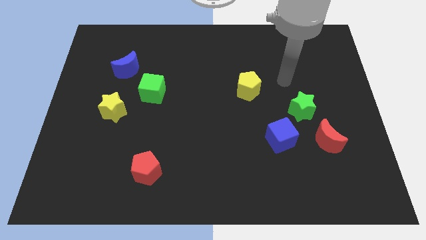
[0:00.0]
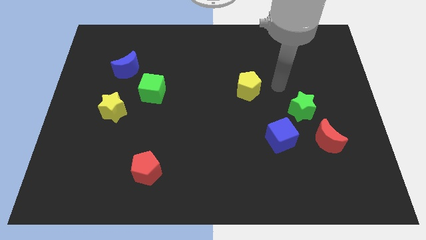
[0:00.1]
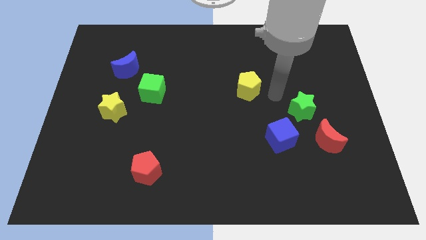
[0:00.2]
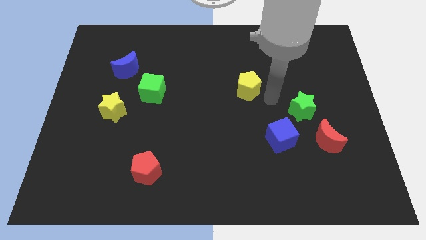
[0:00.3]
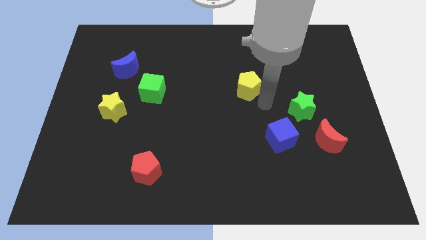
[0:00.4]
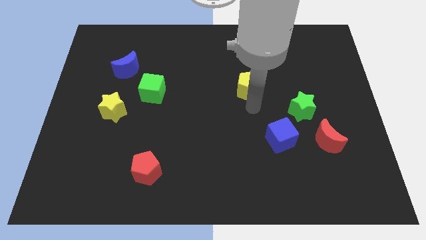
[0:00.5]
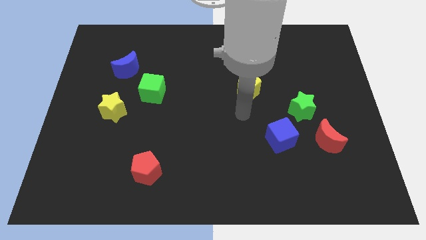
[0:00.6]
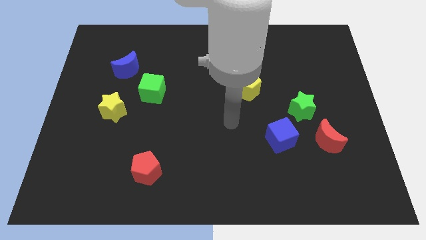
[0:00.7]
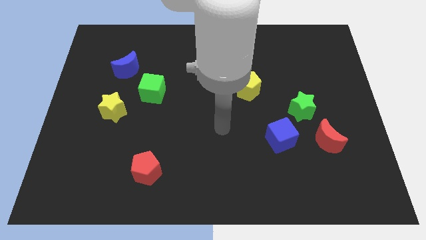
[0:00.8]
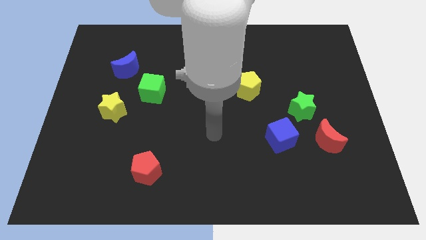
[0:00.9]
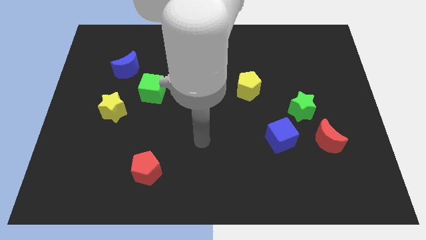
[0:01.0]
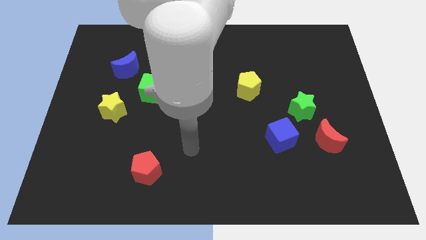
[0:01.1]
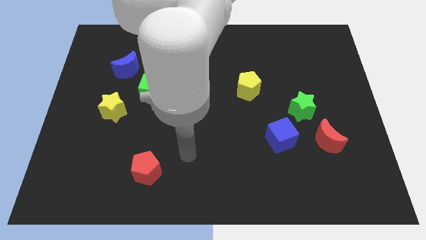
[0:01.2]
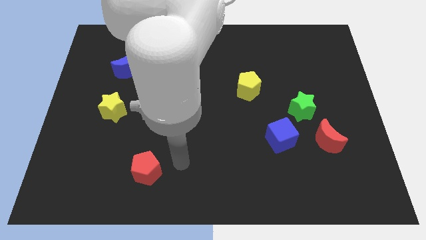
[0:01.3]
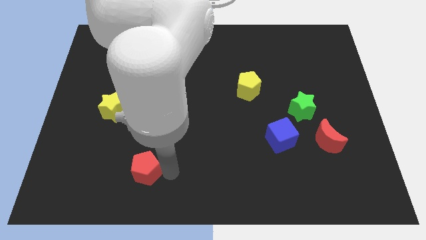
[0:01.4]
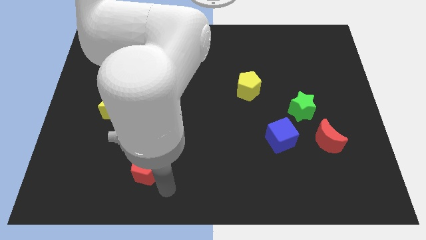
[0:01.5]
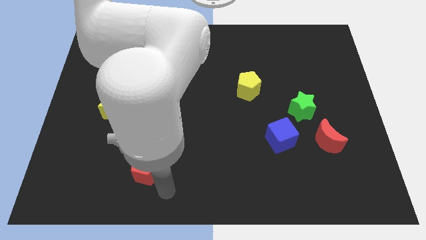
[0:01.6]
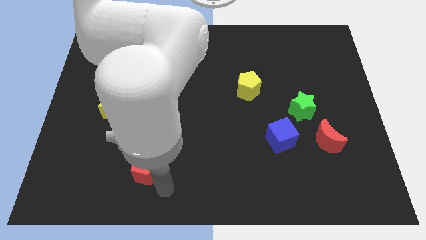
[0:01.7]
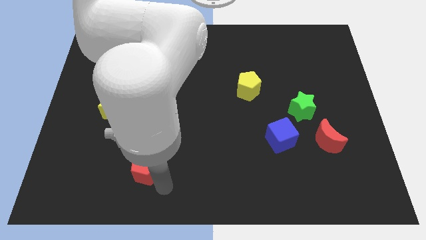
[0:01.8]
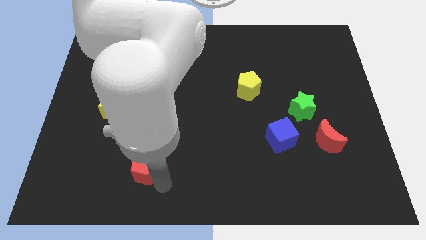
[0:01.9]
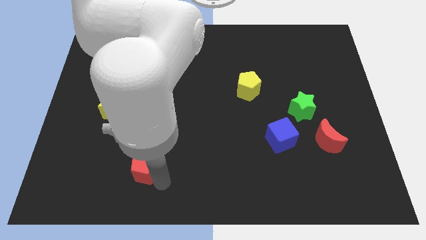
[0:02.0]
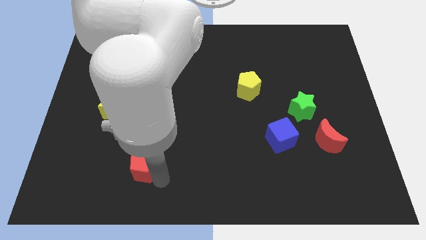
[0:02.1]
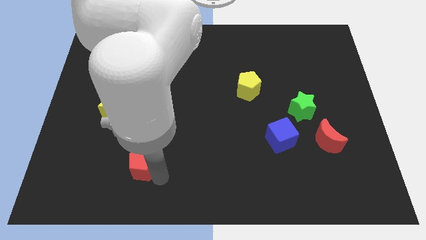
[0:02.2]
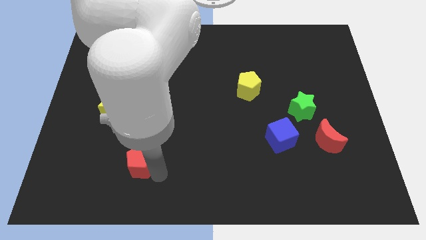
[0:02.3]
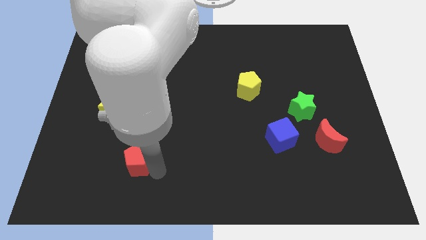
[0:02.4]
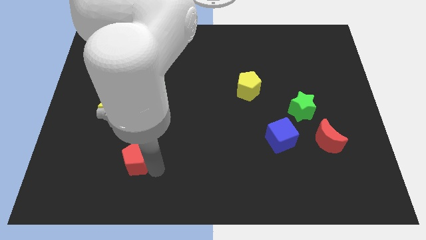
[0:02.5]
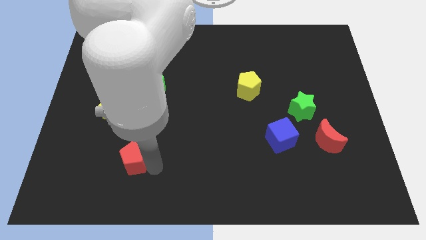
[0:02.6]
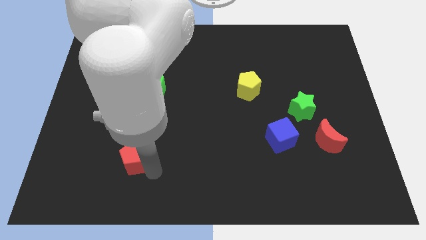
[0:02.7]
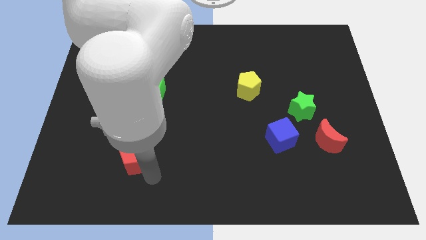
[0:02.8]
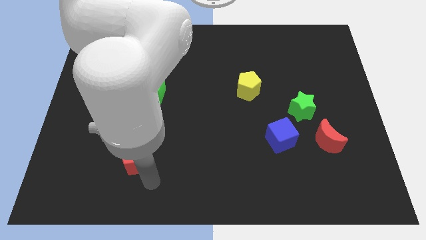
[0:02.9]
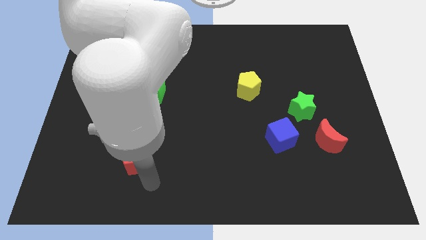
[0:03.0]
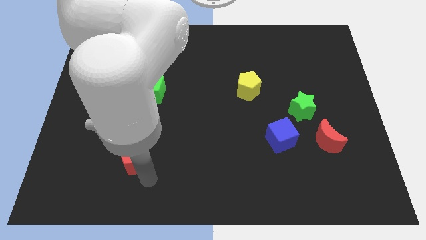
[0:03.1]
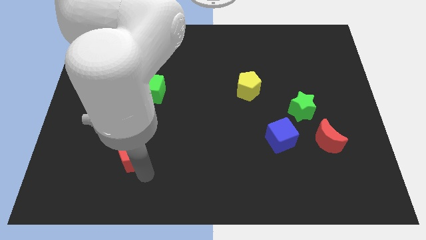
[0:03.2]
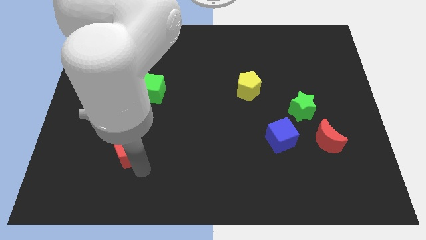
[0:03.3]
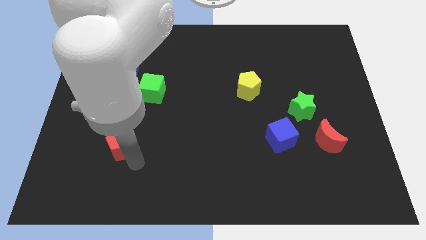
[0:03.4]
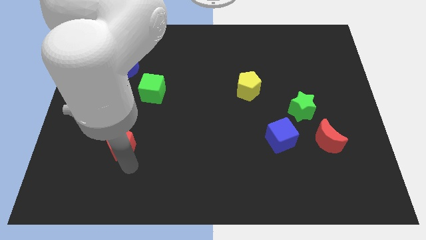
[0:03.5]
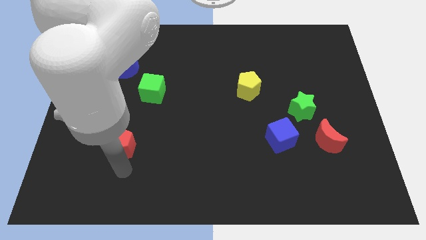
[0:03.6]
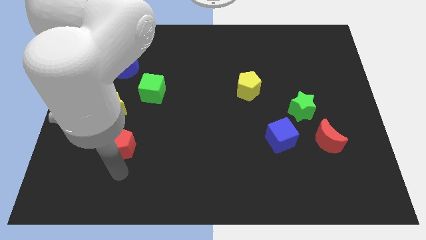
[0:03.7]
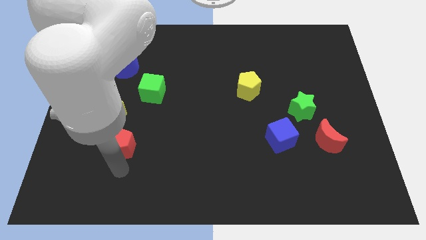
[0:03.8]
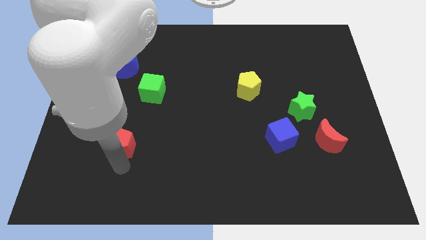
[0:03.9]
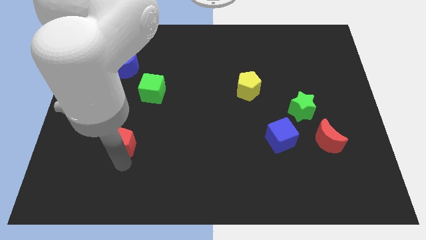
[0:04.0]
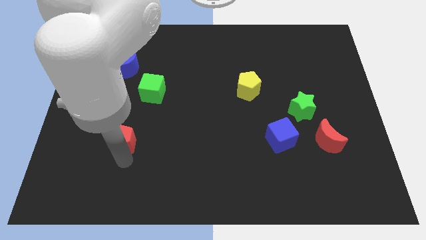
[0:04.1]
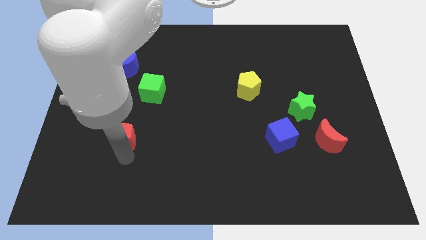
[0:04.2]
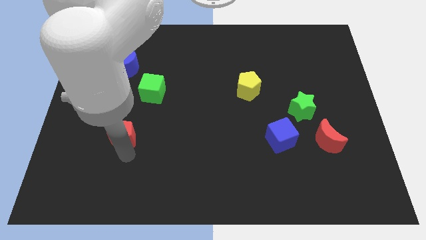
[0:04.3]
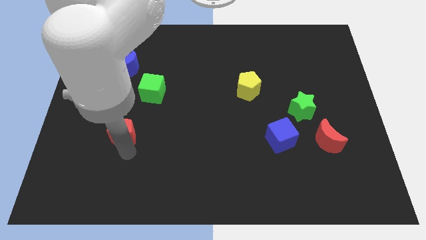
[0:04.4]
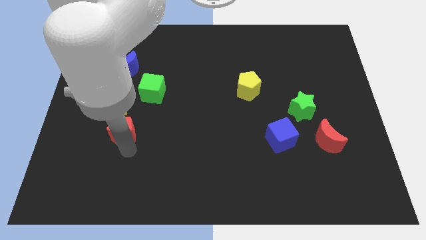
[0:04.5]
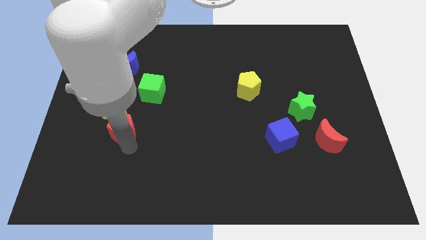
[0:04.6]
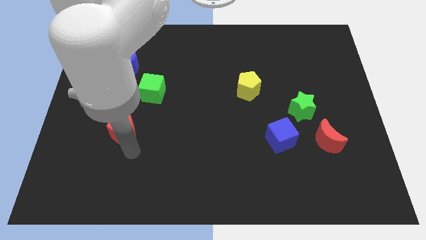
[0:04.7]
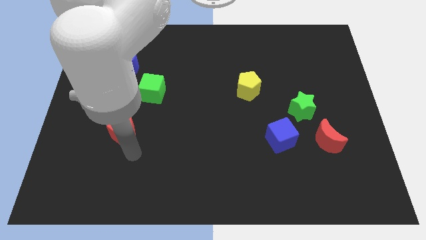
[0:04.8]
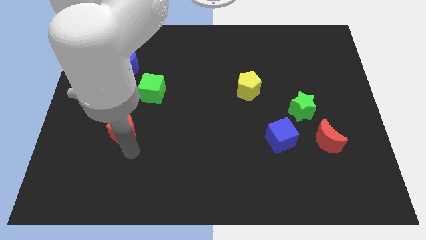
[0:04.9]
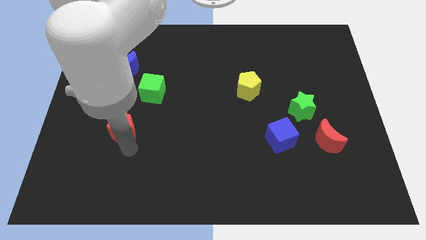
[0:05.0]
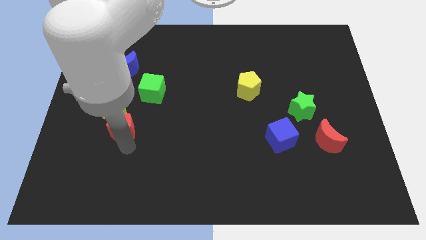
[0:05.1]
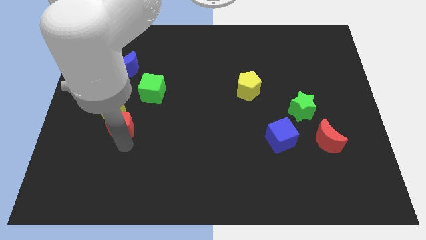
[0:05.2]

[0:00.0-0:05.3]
push the red pentagon to the yellow star

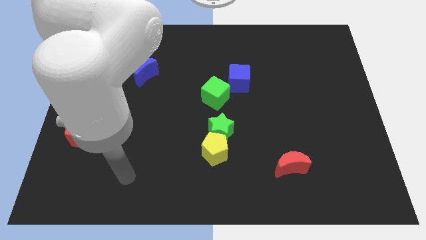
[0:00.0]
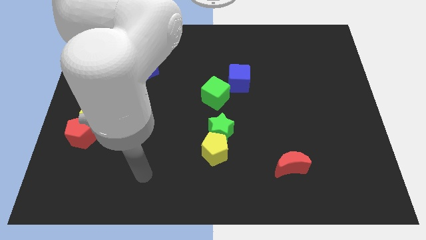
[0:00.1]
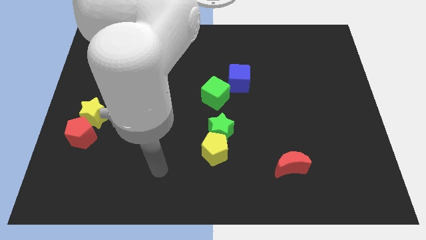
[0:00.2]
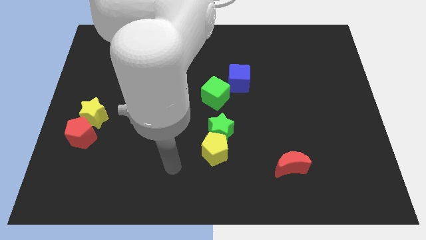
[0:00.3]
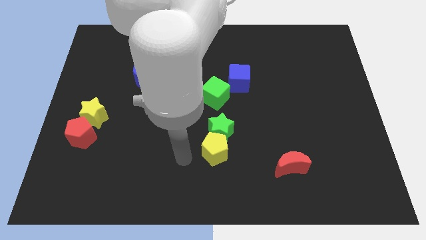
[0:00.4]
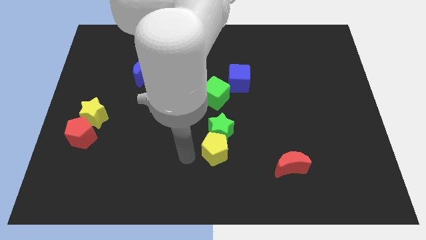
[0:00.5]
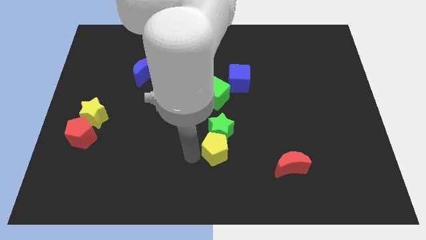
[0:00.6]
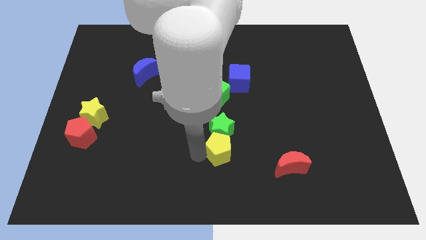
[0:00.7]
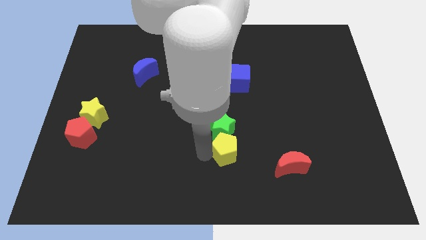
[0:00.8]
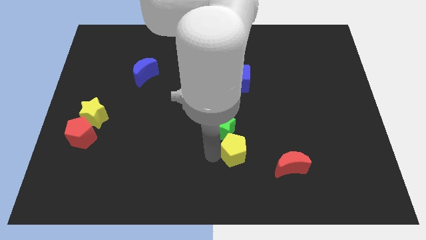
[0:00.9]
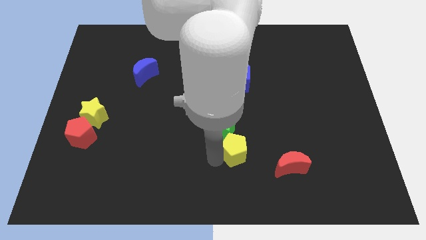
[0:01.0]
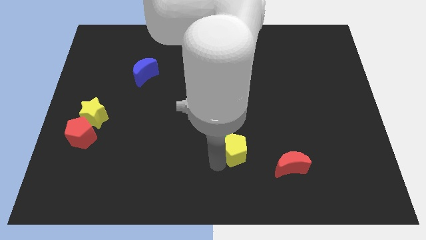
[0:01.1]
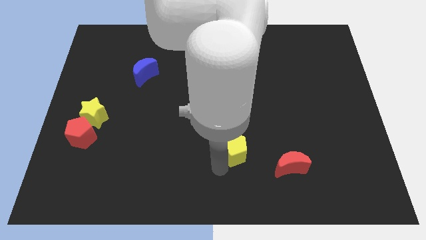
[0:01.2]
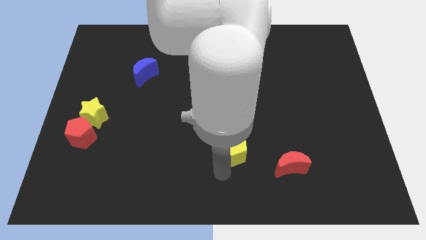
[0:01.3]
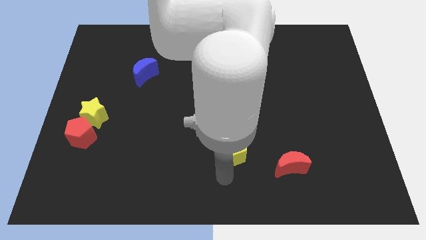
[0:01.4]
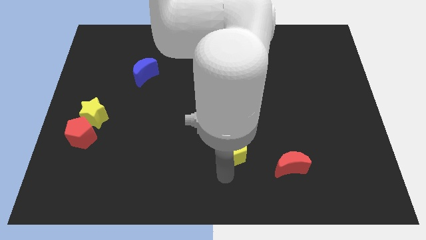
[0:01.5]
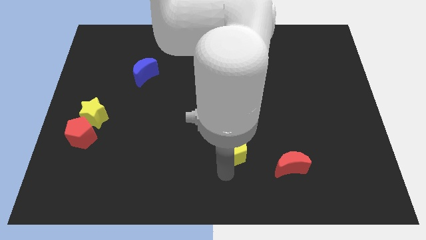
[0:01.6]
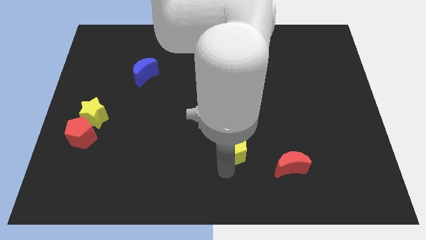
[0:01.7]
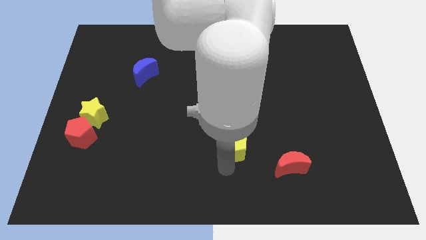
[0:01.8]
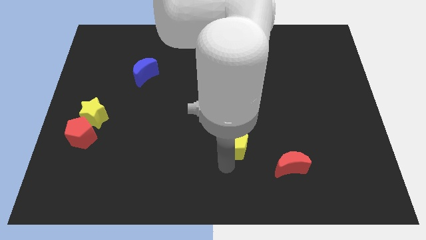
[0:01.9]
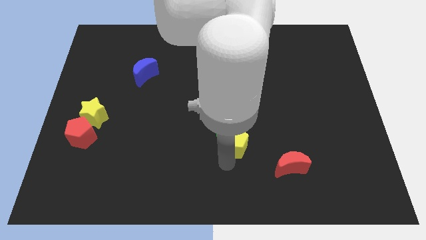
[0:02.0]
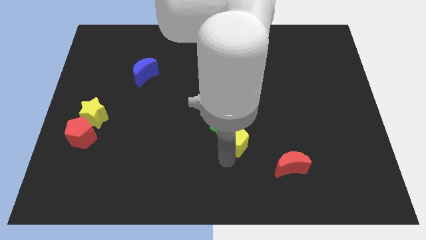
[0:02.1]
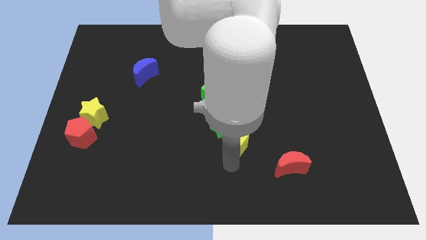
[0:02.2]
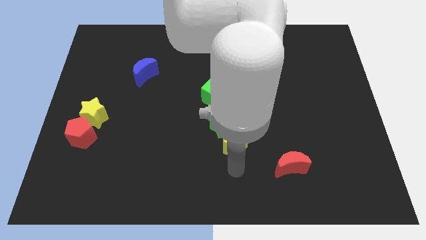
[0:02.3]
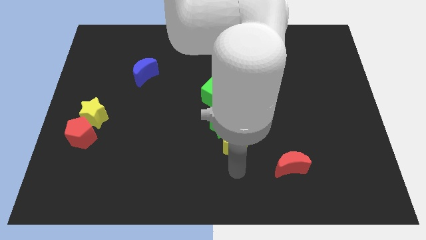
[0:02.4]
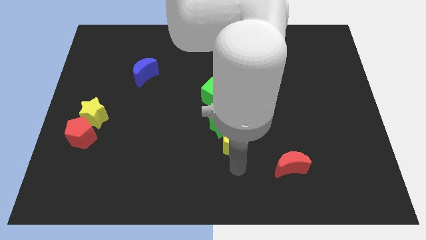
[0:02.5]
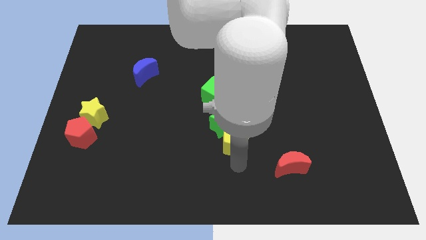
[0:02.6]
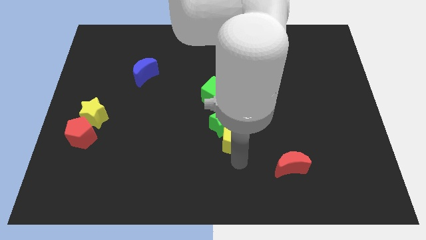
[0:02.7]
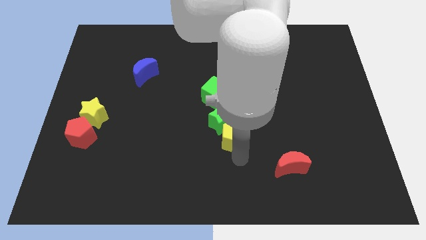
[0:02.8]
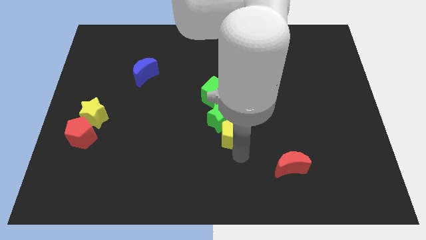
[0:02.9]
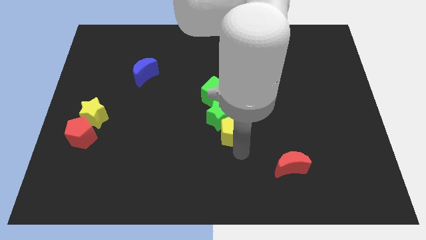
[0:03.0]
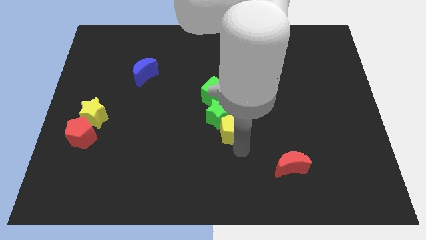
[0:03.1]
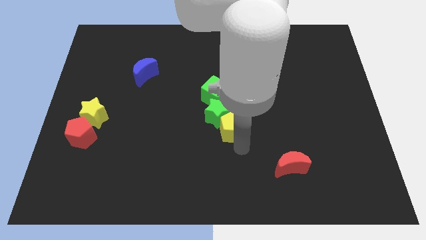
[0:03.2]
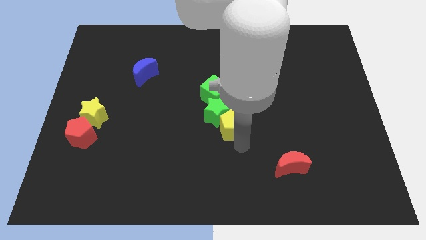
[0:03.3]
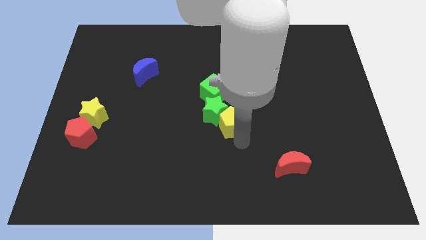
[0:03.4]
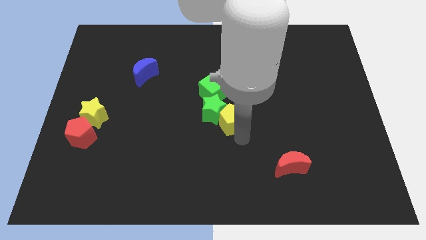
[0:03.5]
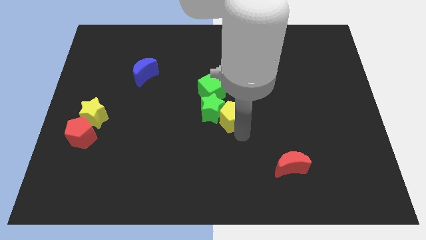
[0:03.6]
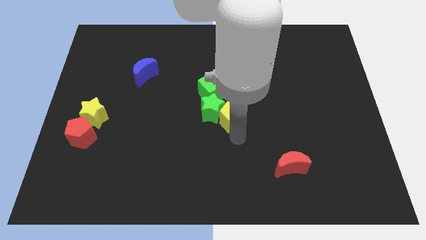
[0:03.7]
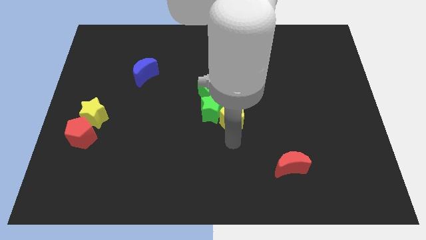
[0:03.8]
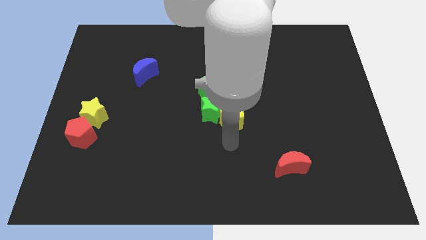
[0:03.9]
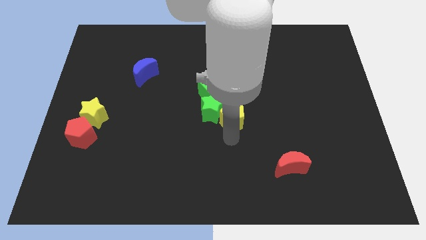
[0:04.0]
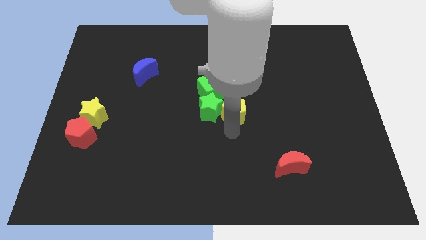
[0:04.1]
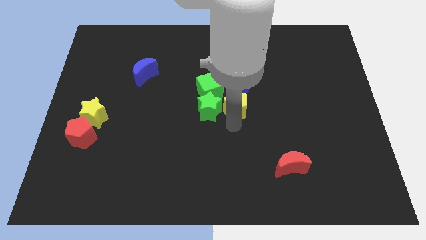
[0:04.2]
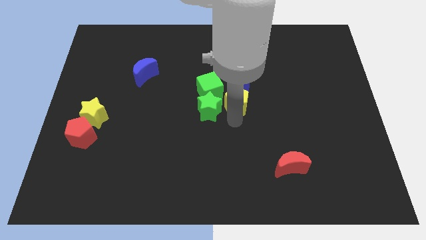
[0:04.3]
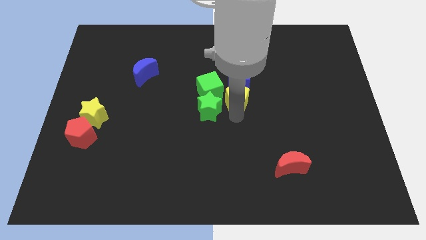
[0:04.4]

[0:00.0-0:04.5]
push the yellow pentagon towards the blue cube
